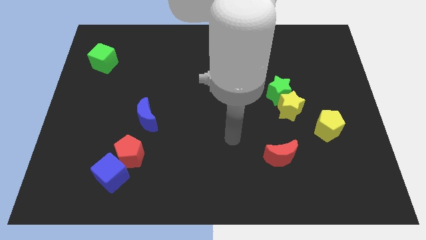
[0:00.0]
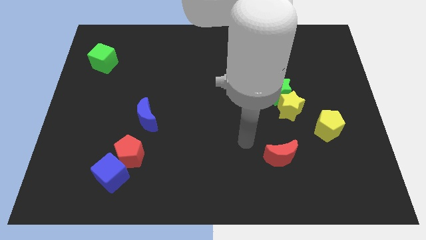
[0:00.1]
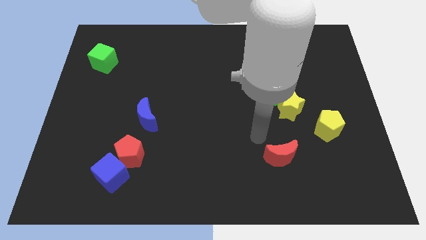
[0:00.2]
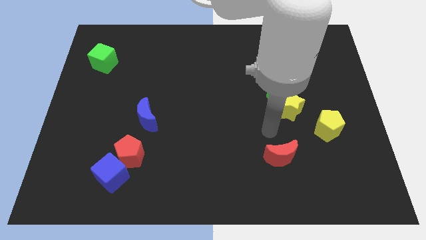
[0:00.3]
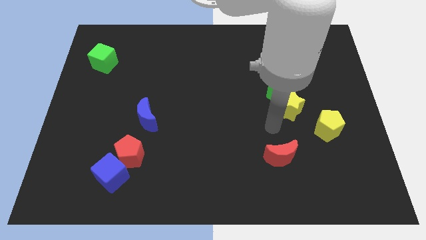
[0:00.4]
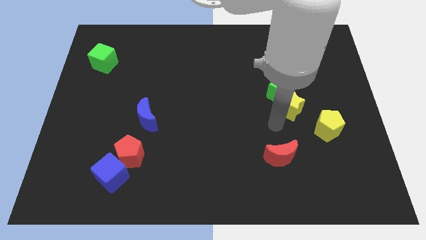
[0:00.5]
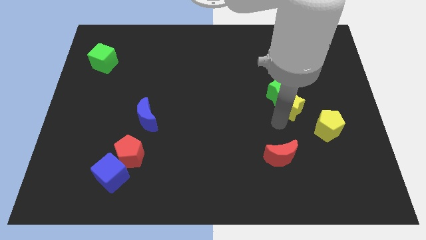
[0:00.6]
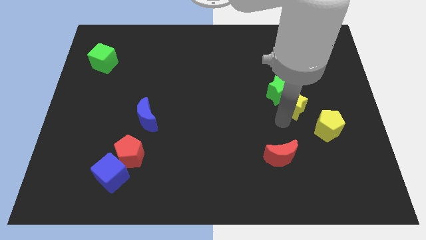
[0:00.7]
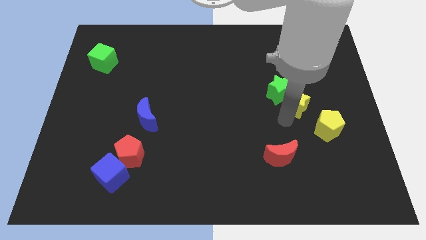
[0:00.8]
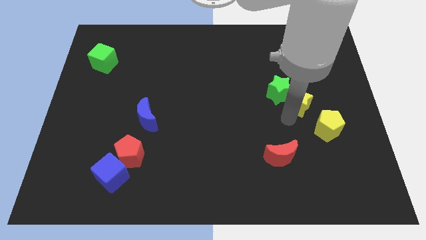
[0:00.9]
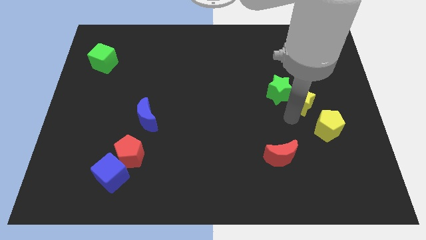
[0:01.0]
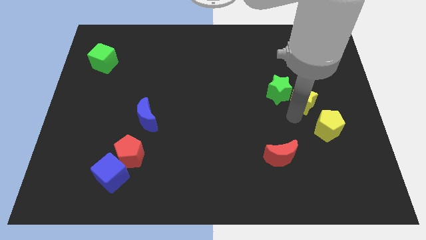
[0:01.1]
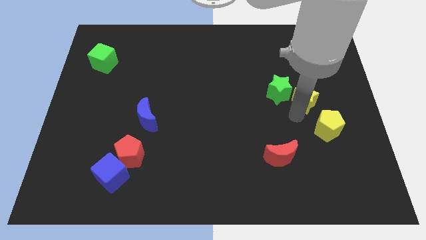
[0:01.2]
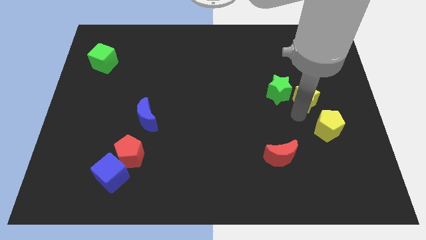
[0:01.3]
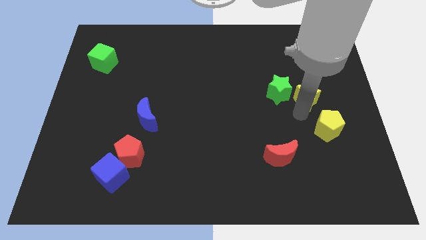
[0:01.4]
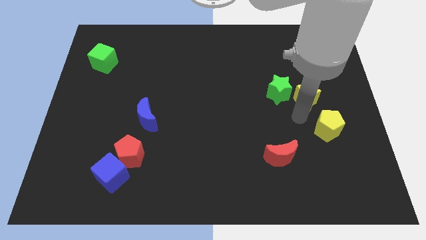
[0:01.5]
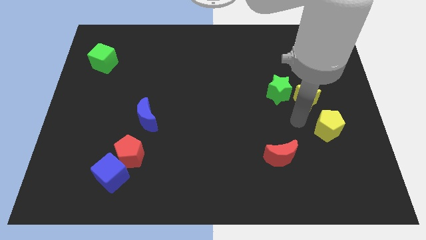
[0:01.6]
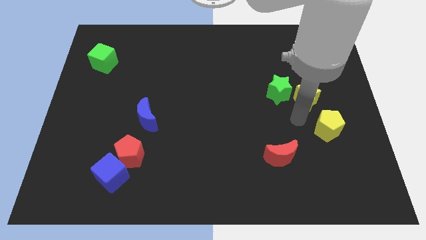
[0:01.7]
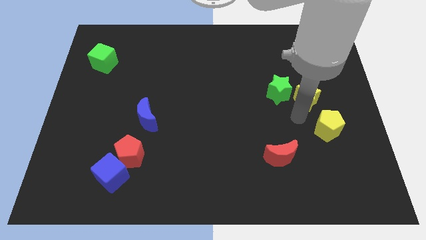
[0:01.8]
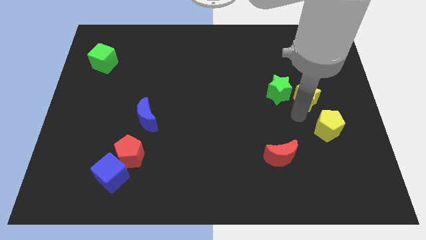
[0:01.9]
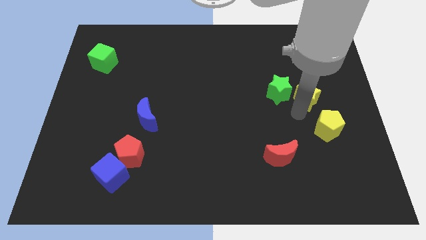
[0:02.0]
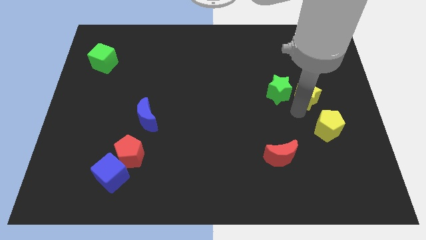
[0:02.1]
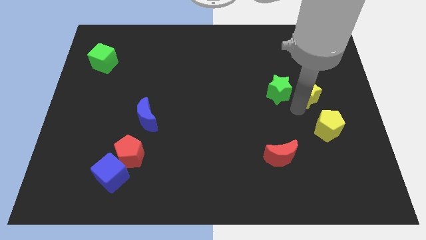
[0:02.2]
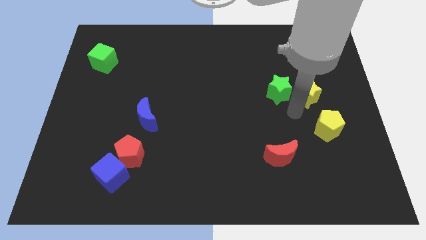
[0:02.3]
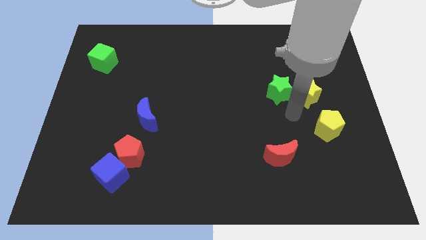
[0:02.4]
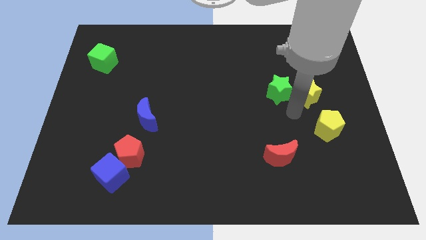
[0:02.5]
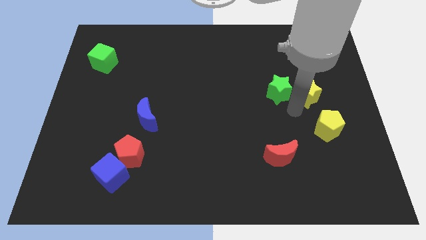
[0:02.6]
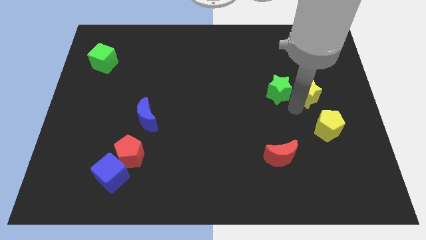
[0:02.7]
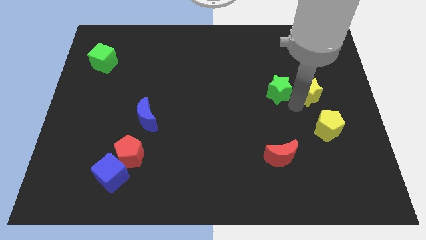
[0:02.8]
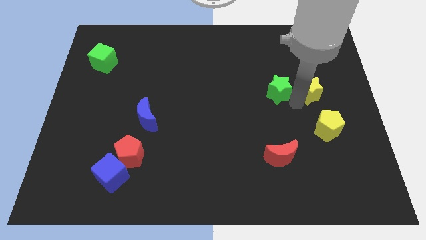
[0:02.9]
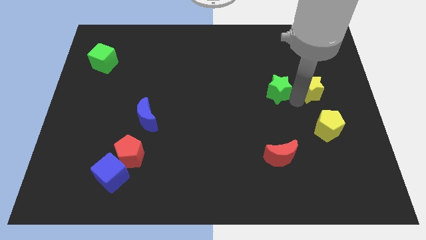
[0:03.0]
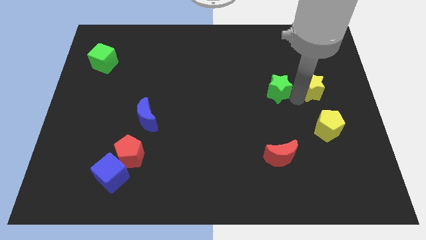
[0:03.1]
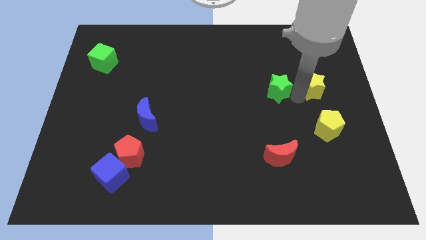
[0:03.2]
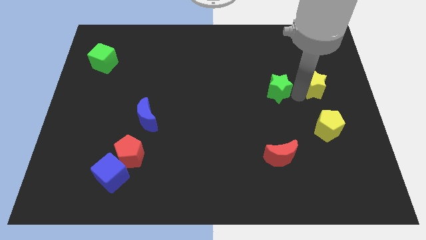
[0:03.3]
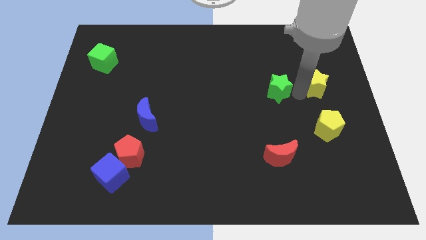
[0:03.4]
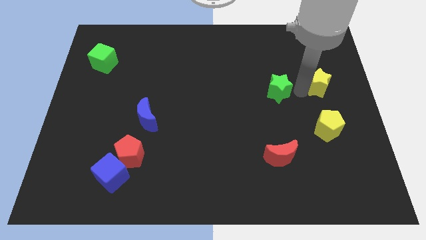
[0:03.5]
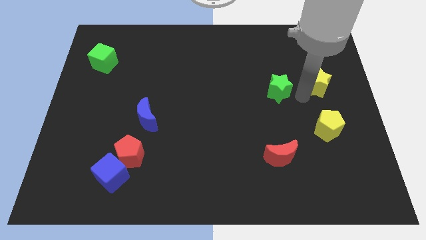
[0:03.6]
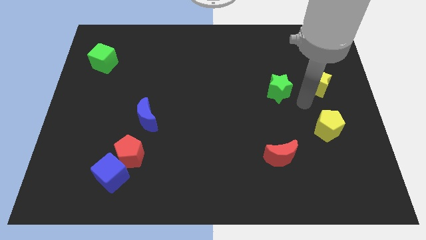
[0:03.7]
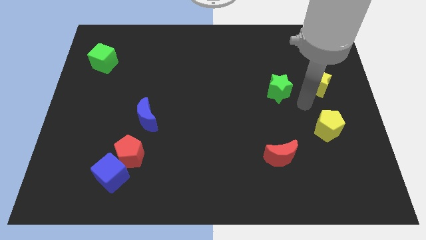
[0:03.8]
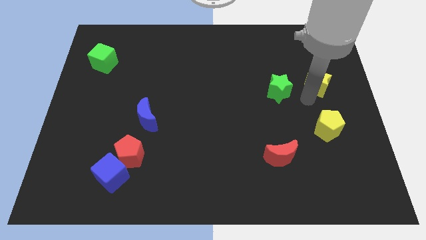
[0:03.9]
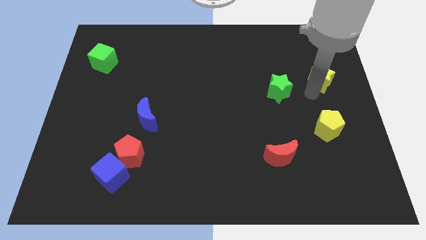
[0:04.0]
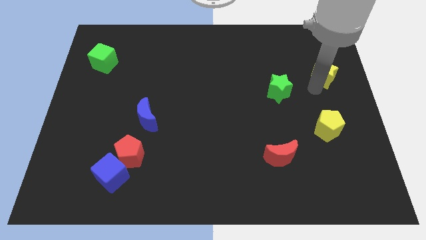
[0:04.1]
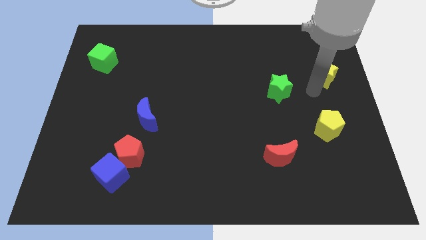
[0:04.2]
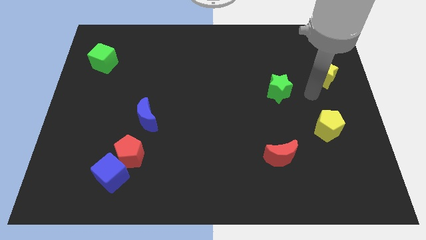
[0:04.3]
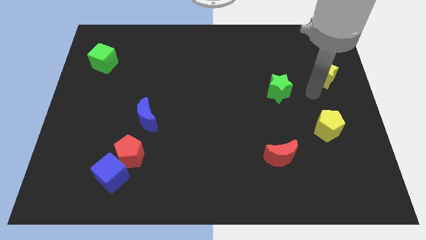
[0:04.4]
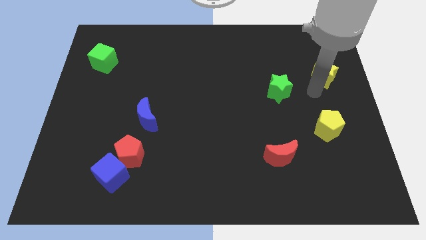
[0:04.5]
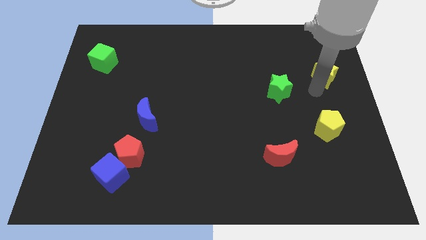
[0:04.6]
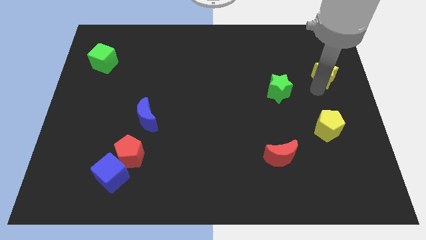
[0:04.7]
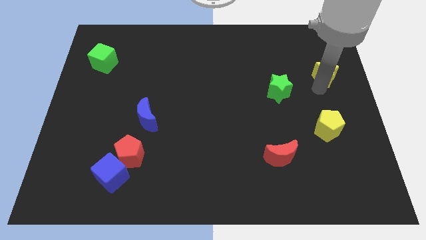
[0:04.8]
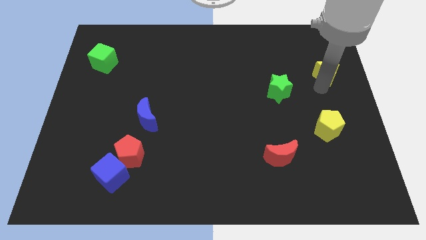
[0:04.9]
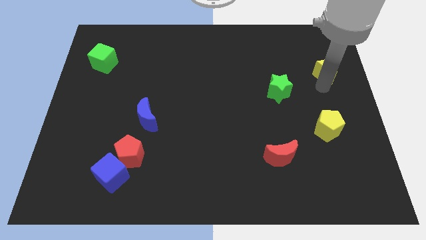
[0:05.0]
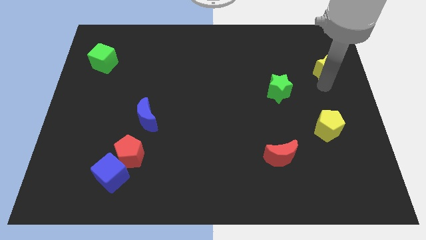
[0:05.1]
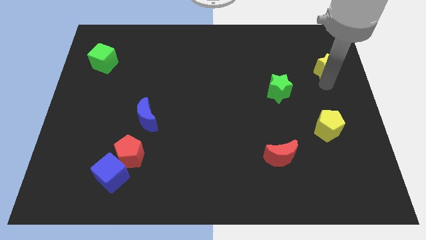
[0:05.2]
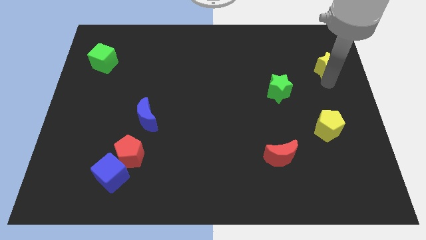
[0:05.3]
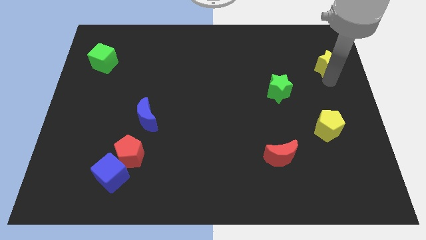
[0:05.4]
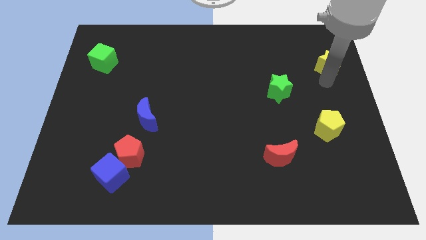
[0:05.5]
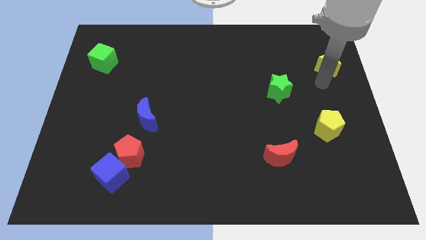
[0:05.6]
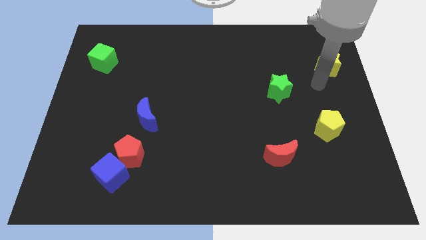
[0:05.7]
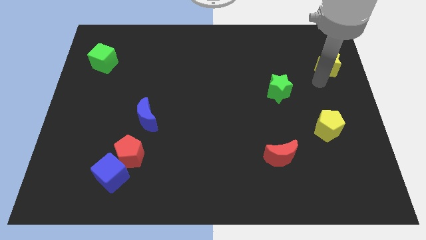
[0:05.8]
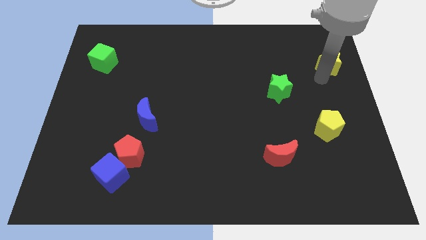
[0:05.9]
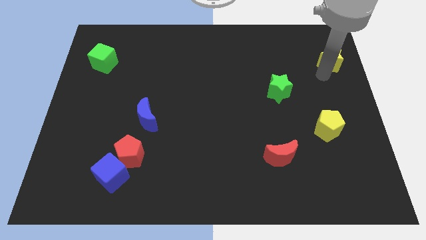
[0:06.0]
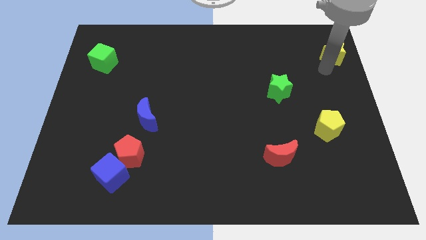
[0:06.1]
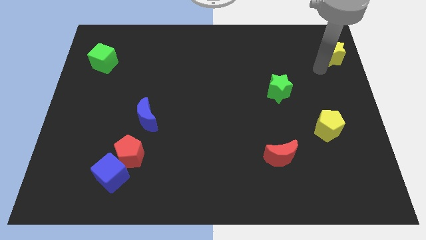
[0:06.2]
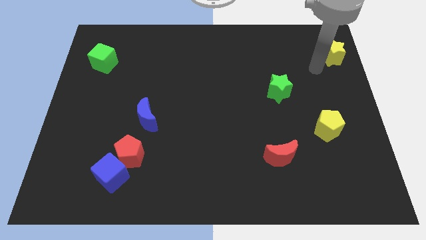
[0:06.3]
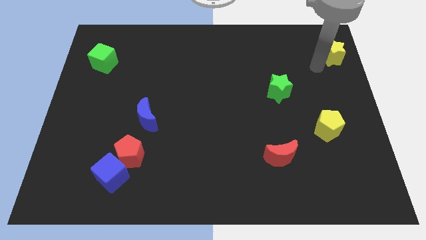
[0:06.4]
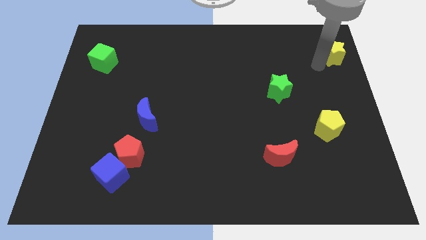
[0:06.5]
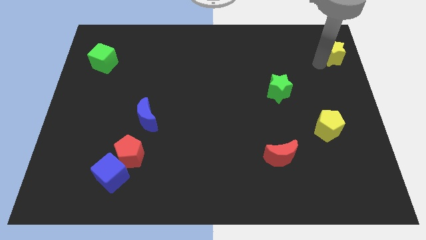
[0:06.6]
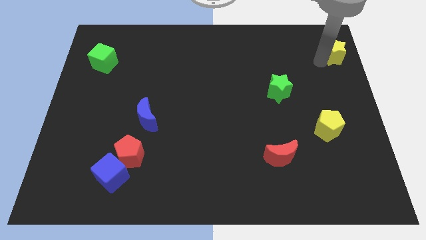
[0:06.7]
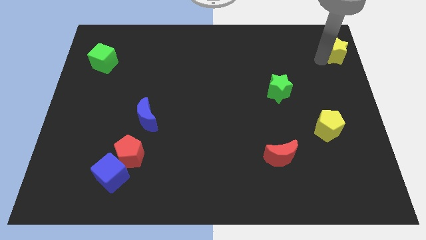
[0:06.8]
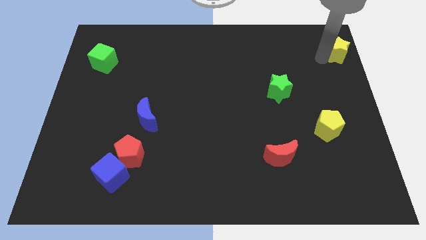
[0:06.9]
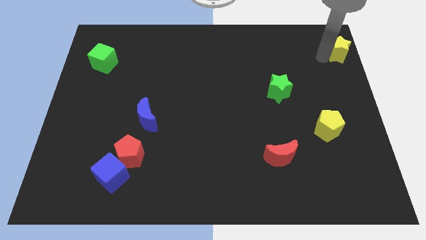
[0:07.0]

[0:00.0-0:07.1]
move the yellow star to the top right
